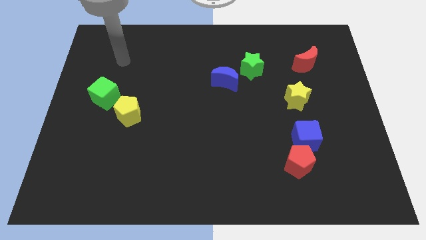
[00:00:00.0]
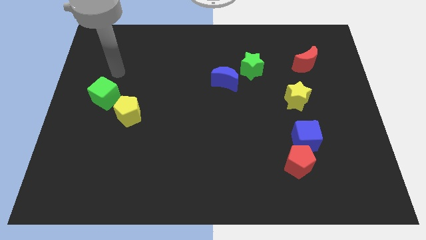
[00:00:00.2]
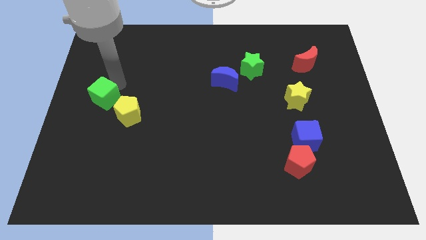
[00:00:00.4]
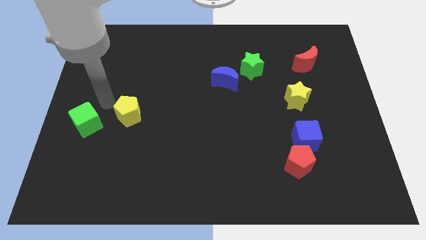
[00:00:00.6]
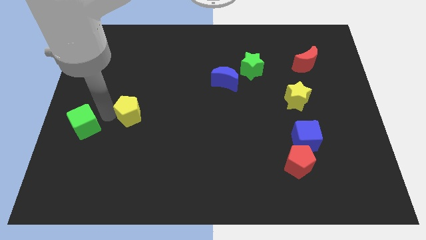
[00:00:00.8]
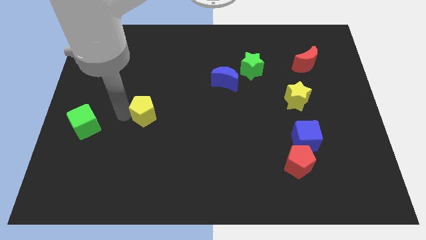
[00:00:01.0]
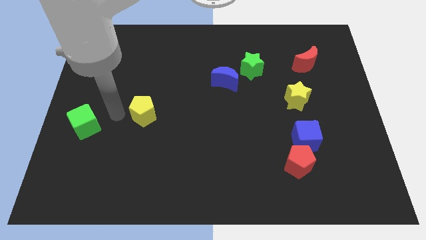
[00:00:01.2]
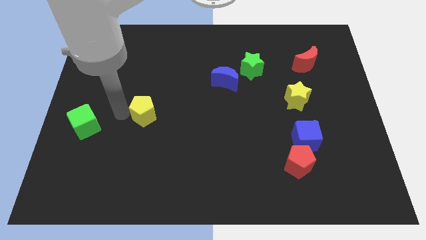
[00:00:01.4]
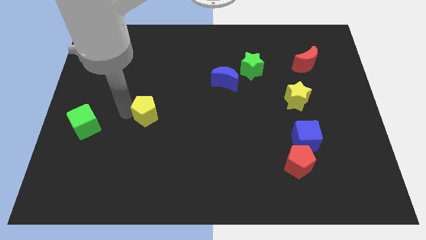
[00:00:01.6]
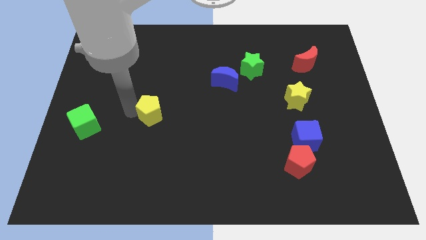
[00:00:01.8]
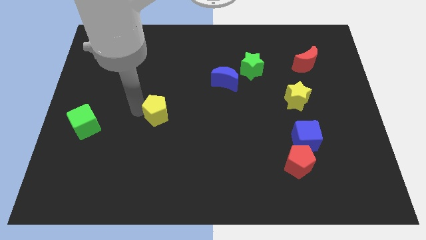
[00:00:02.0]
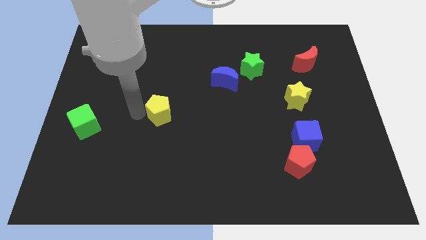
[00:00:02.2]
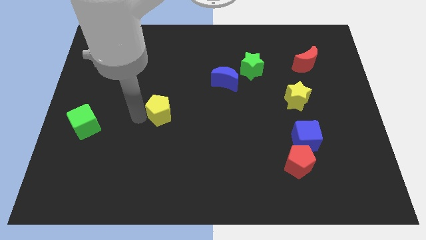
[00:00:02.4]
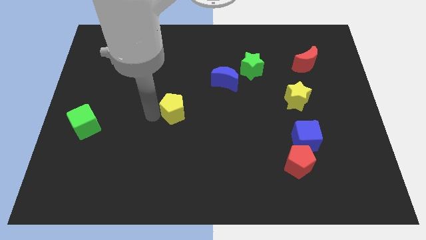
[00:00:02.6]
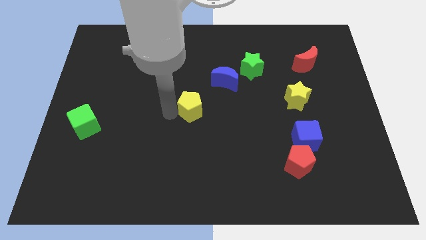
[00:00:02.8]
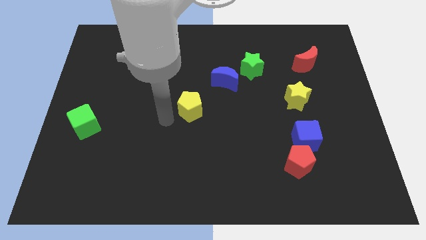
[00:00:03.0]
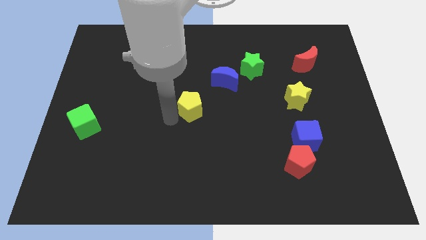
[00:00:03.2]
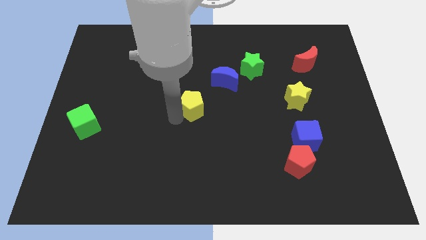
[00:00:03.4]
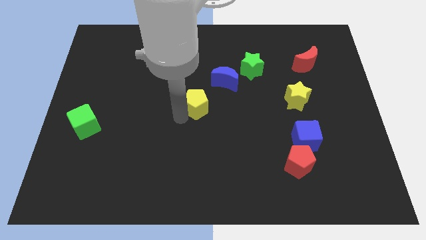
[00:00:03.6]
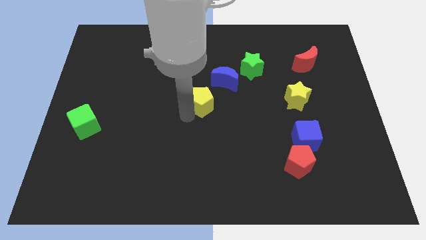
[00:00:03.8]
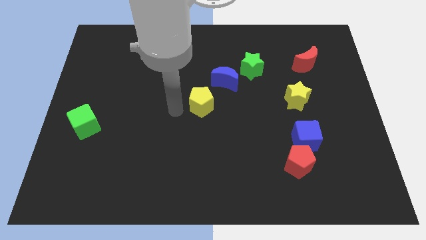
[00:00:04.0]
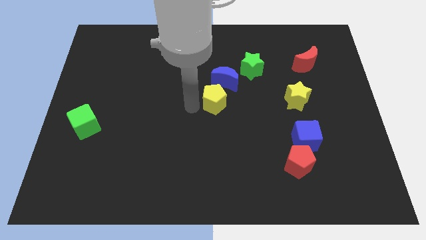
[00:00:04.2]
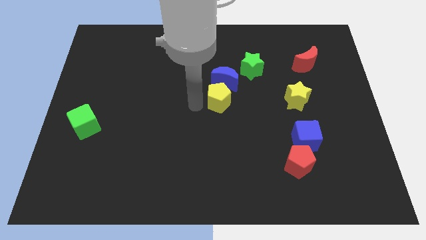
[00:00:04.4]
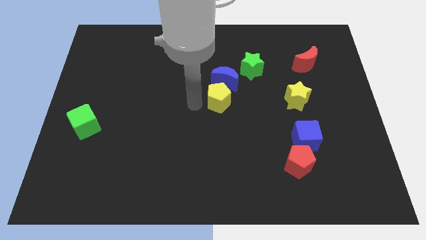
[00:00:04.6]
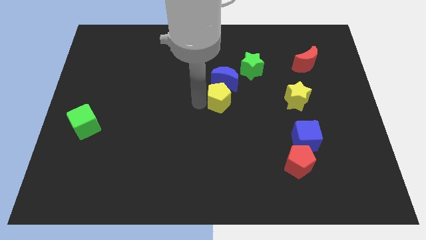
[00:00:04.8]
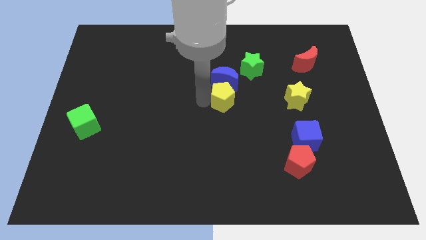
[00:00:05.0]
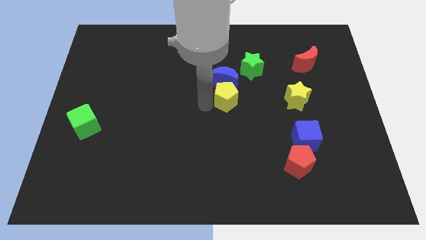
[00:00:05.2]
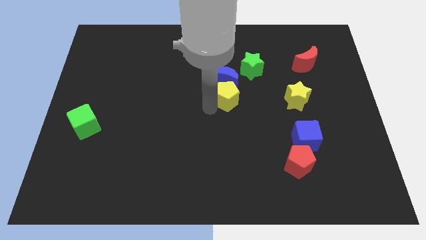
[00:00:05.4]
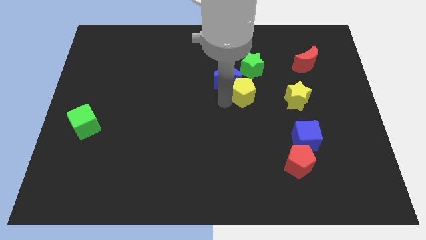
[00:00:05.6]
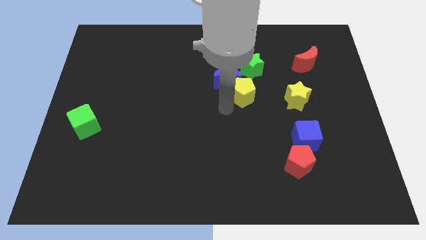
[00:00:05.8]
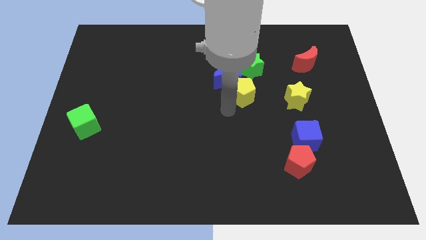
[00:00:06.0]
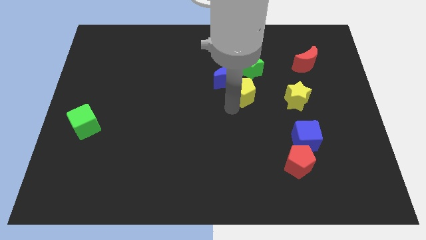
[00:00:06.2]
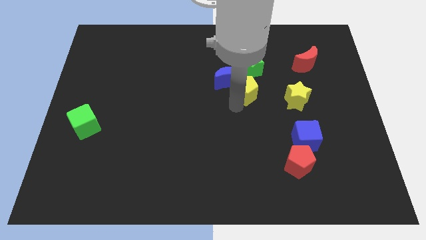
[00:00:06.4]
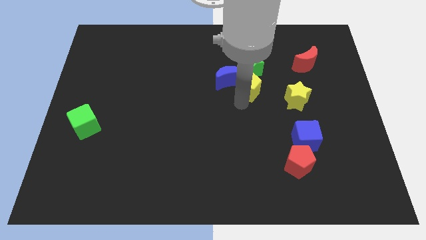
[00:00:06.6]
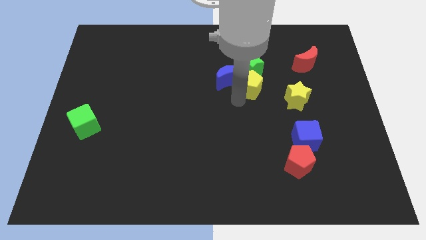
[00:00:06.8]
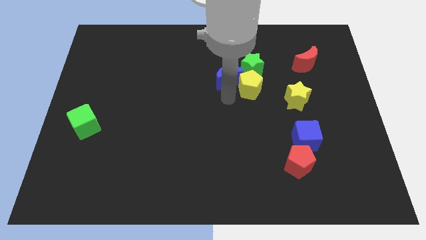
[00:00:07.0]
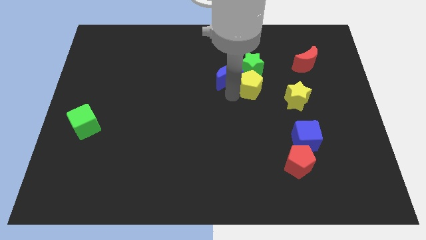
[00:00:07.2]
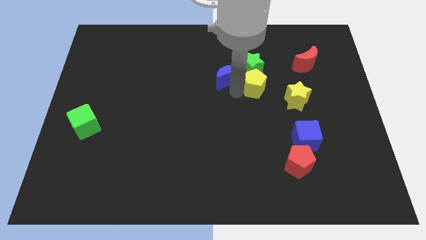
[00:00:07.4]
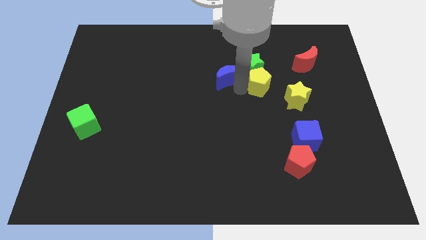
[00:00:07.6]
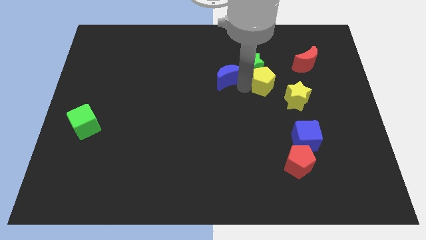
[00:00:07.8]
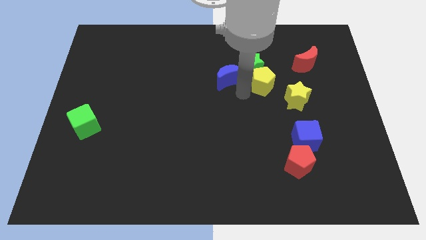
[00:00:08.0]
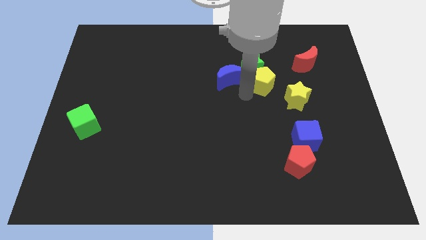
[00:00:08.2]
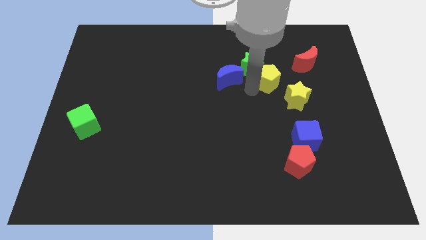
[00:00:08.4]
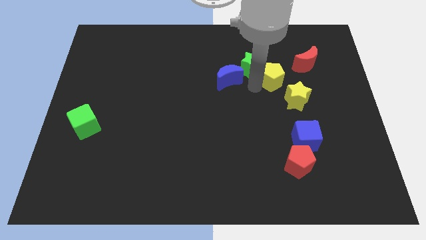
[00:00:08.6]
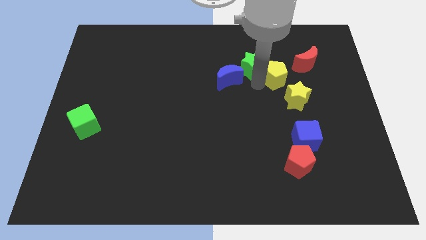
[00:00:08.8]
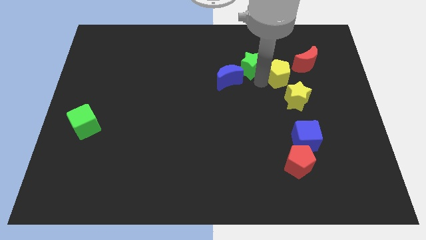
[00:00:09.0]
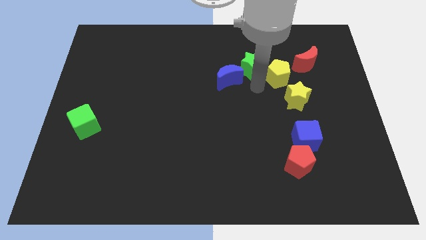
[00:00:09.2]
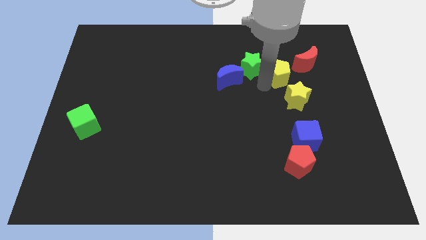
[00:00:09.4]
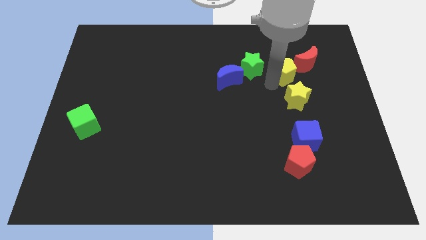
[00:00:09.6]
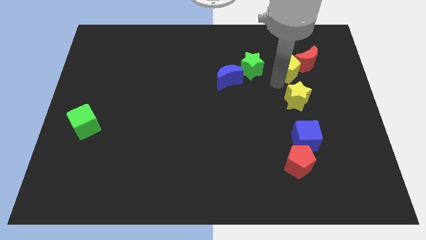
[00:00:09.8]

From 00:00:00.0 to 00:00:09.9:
move the yellow pentagon close to the red moon

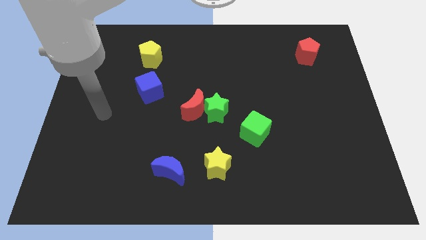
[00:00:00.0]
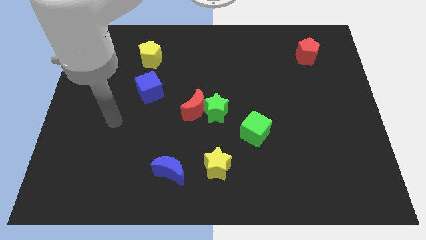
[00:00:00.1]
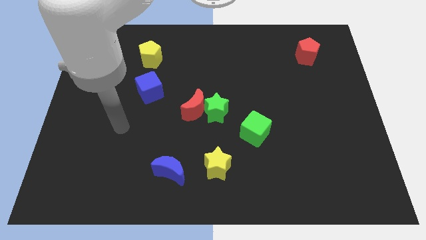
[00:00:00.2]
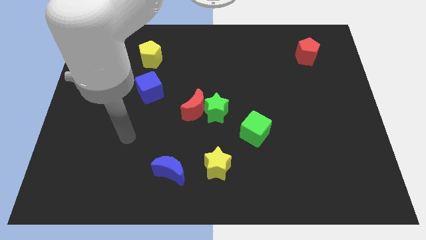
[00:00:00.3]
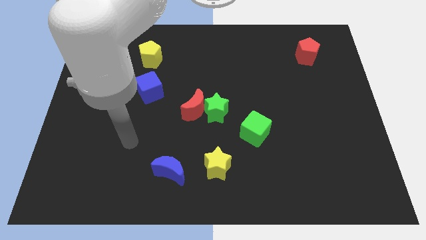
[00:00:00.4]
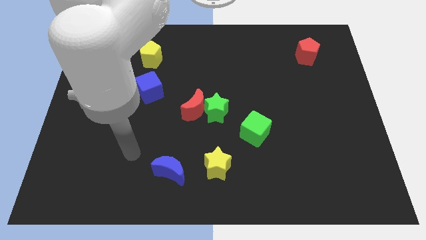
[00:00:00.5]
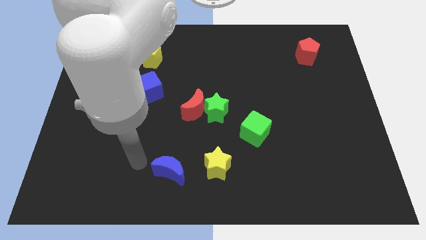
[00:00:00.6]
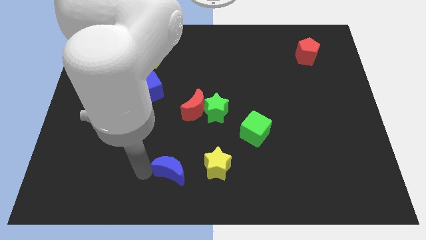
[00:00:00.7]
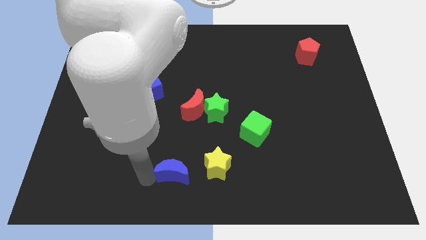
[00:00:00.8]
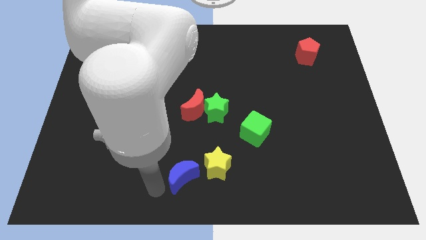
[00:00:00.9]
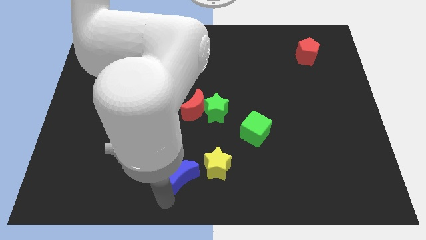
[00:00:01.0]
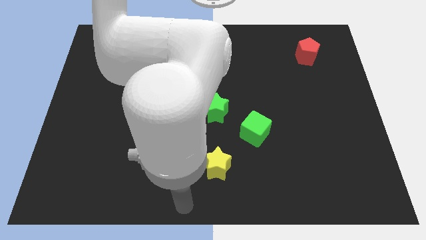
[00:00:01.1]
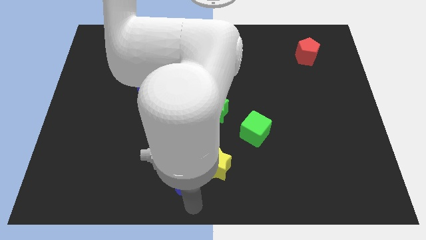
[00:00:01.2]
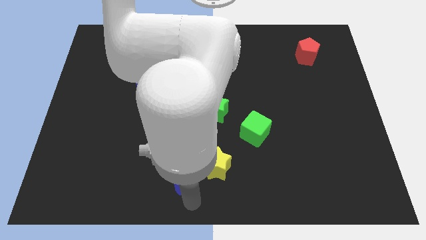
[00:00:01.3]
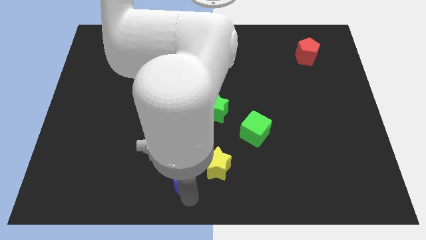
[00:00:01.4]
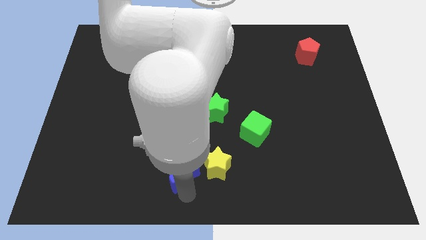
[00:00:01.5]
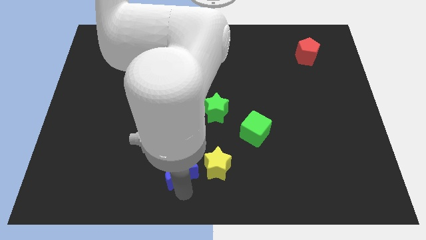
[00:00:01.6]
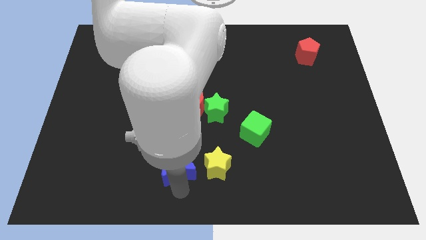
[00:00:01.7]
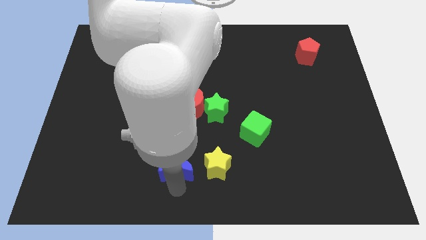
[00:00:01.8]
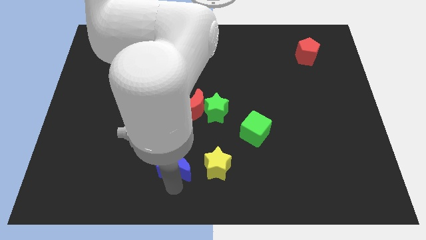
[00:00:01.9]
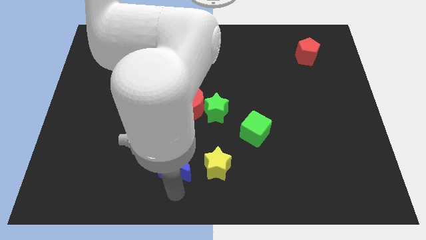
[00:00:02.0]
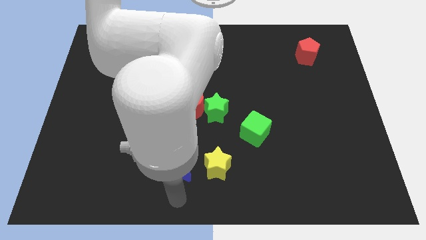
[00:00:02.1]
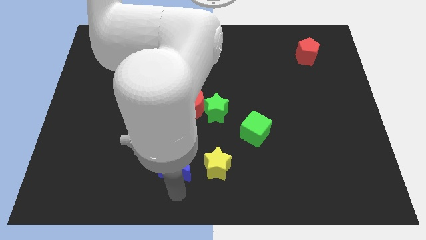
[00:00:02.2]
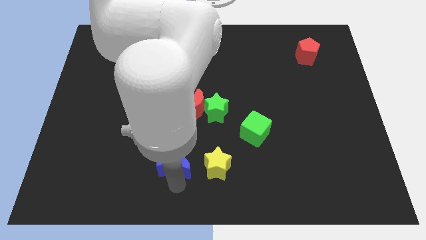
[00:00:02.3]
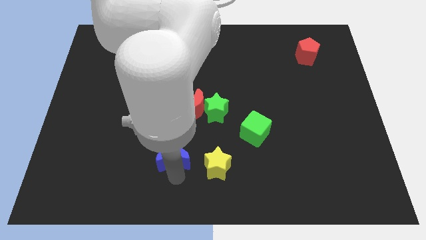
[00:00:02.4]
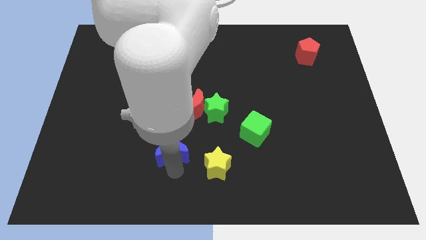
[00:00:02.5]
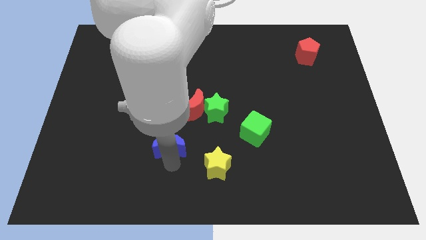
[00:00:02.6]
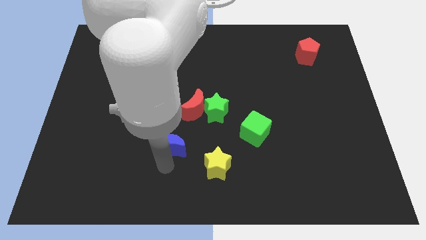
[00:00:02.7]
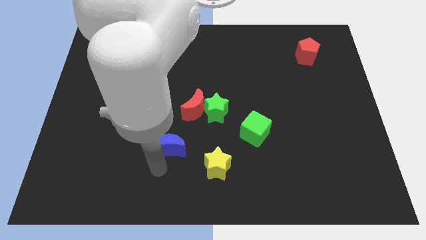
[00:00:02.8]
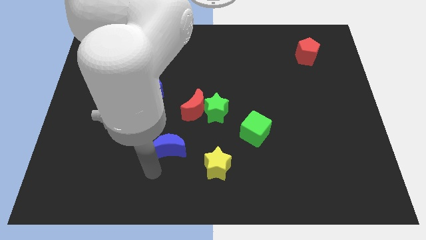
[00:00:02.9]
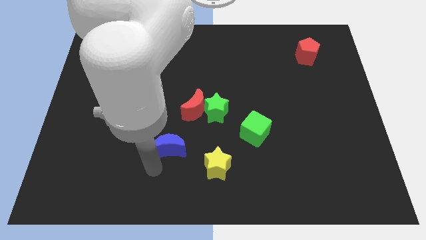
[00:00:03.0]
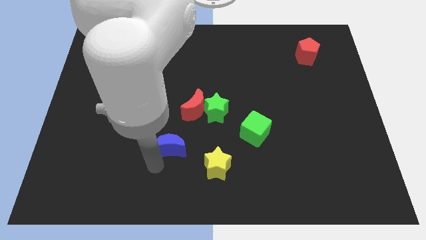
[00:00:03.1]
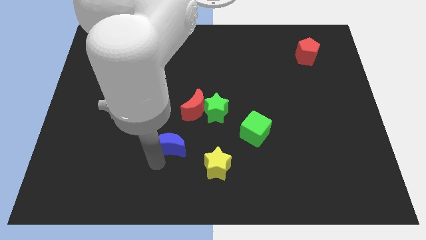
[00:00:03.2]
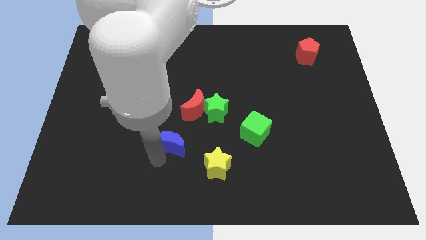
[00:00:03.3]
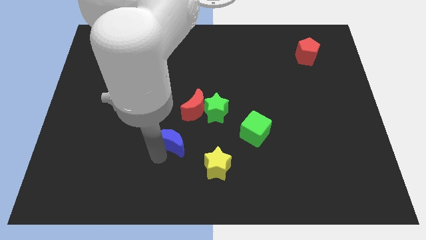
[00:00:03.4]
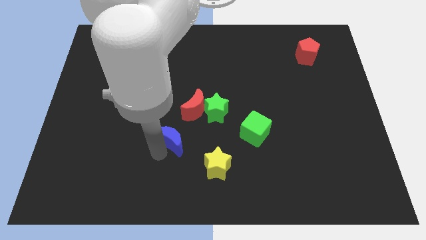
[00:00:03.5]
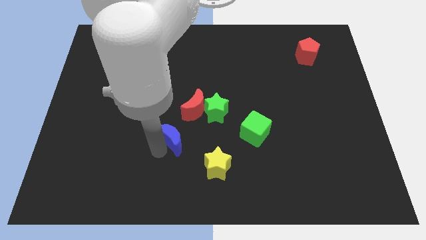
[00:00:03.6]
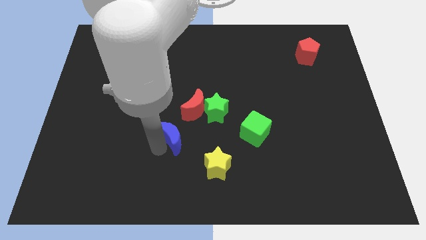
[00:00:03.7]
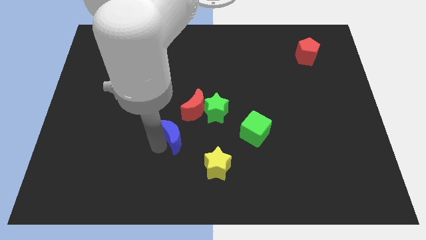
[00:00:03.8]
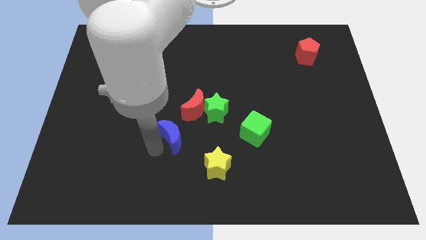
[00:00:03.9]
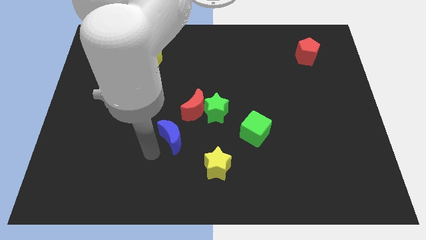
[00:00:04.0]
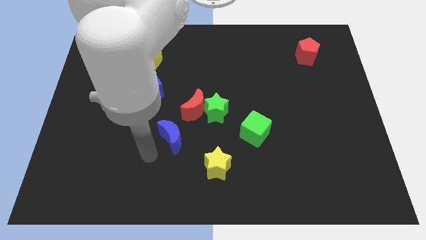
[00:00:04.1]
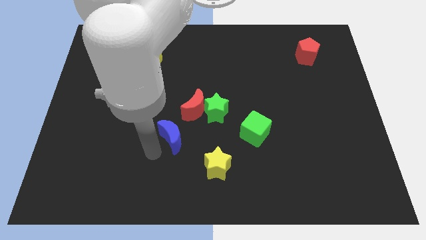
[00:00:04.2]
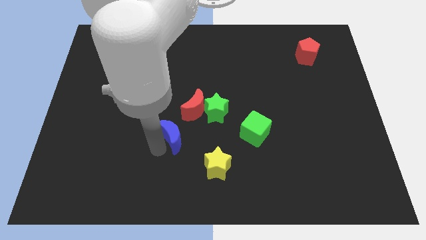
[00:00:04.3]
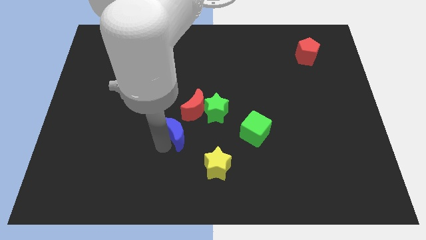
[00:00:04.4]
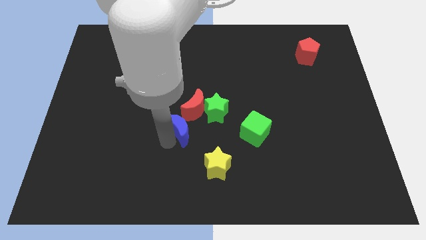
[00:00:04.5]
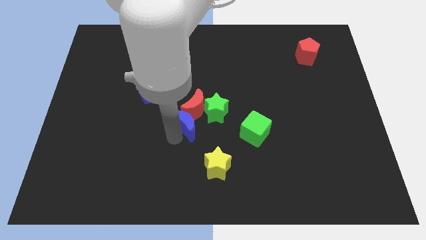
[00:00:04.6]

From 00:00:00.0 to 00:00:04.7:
push the blue moon to the red moon
